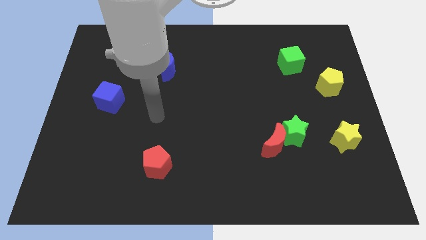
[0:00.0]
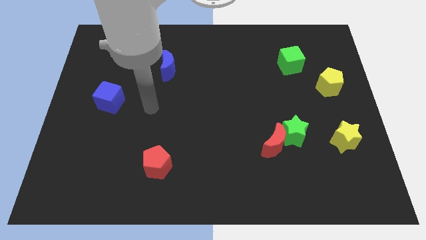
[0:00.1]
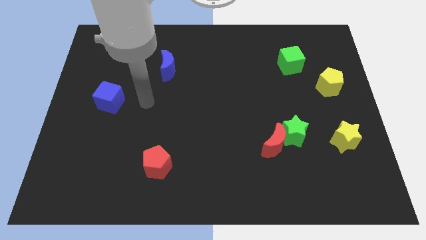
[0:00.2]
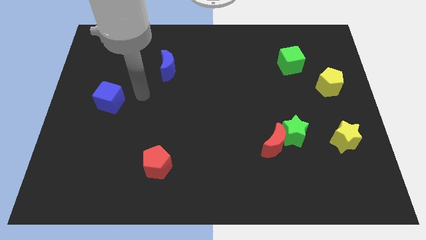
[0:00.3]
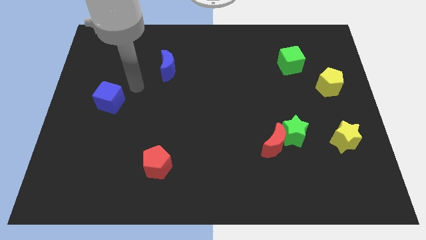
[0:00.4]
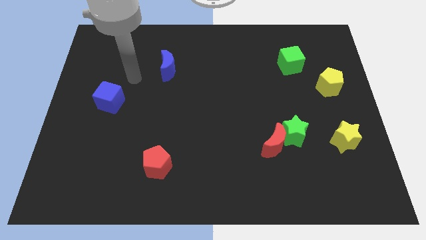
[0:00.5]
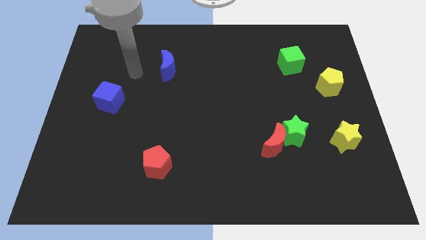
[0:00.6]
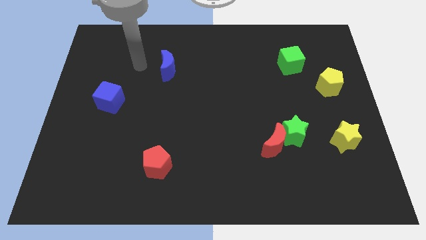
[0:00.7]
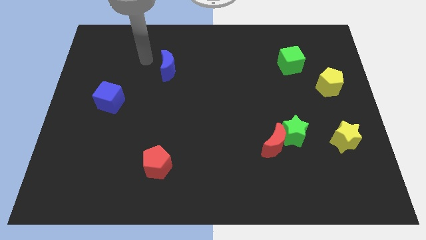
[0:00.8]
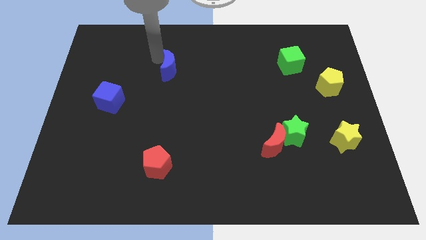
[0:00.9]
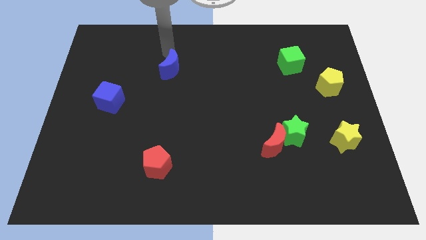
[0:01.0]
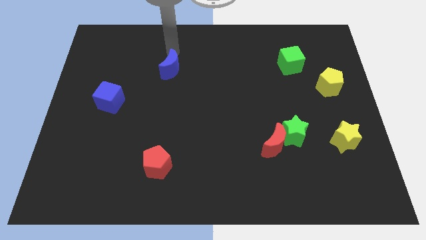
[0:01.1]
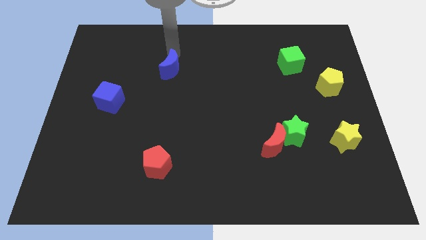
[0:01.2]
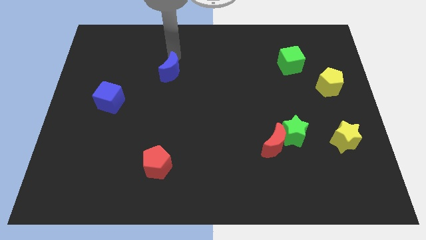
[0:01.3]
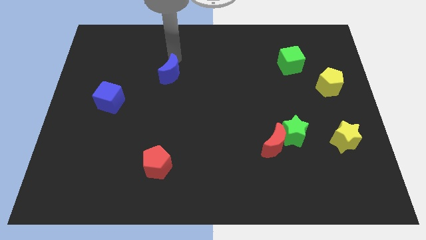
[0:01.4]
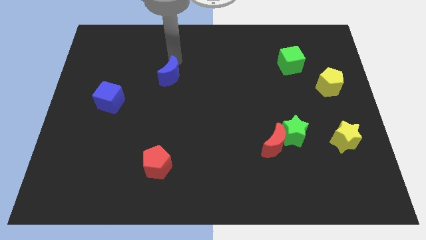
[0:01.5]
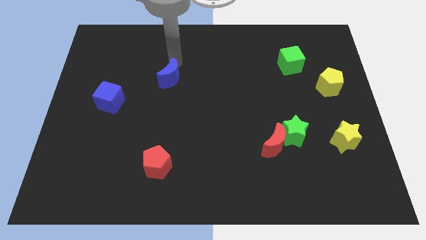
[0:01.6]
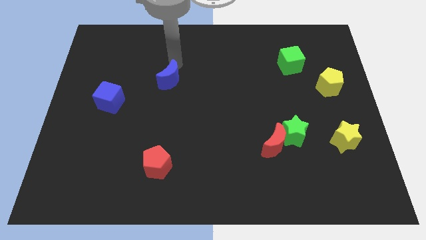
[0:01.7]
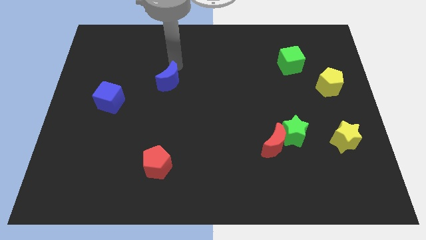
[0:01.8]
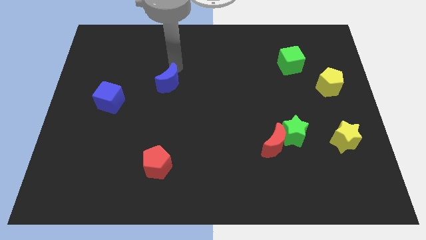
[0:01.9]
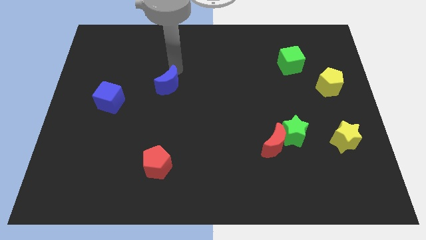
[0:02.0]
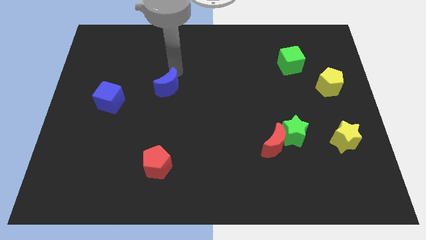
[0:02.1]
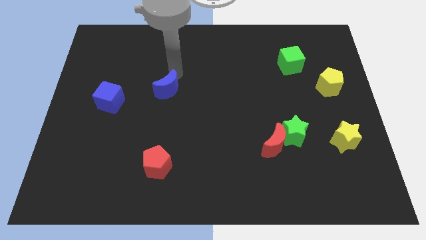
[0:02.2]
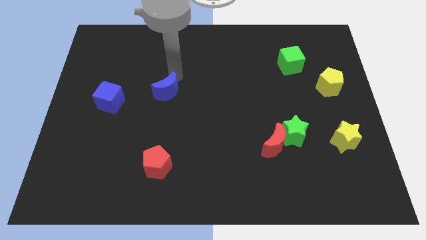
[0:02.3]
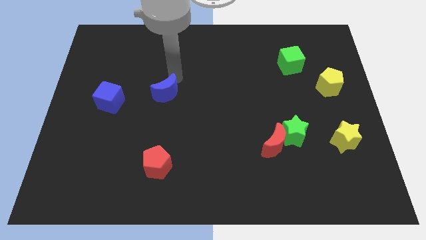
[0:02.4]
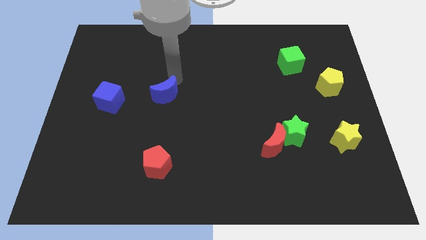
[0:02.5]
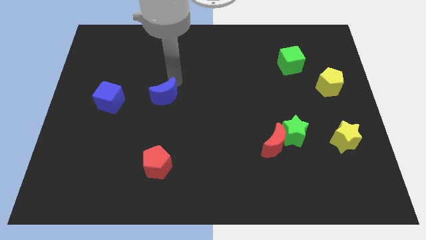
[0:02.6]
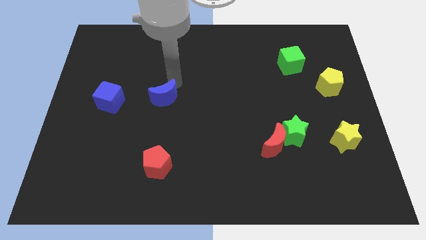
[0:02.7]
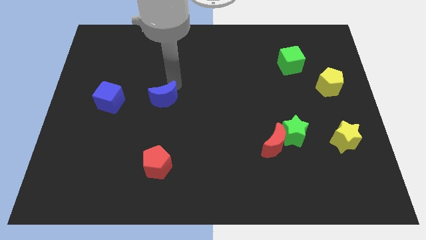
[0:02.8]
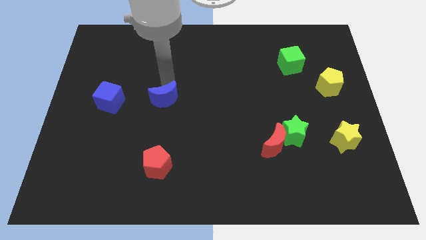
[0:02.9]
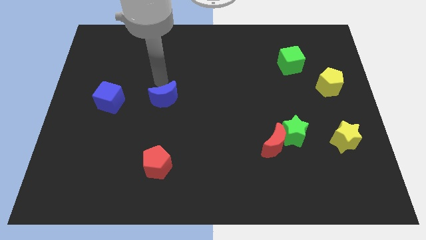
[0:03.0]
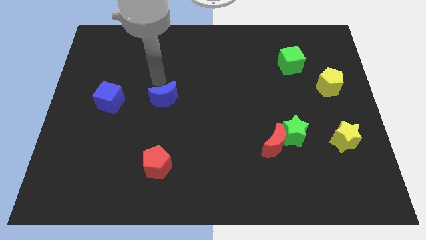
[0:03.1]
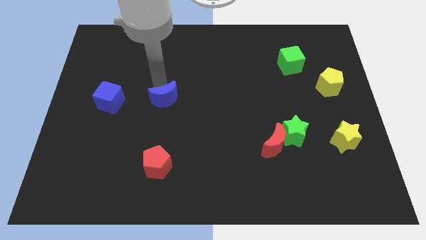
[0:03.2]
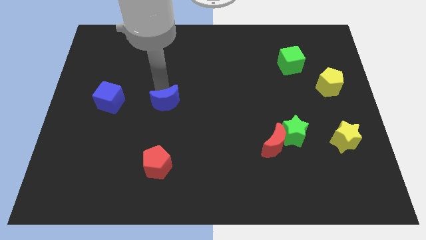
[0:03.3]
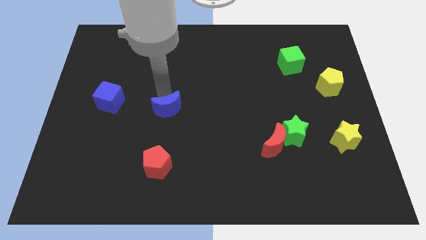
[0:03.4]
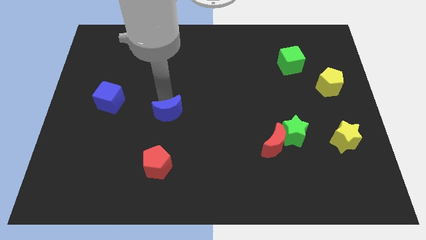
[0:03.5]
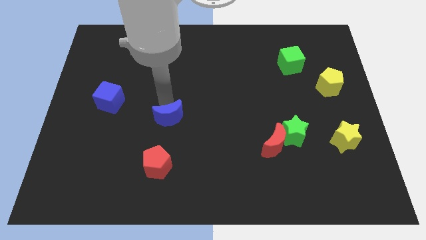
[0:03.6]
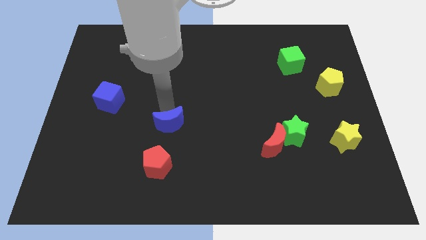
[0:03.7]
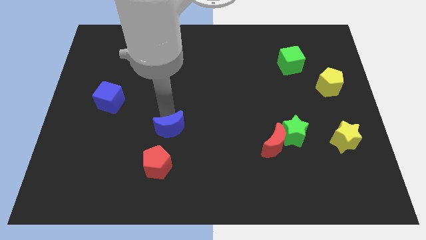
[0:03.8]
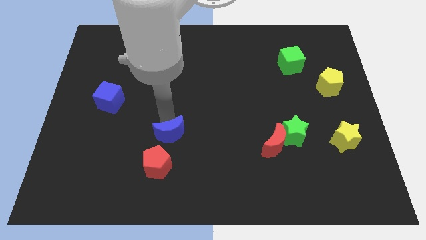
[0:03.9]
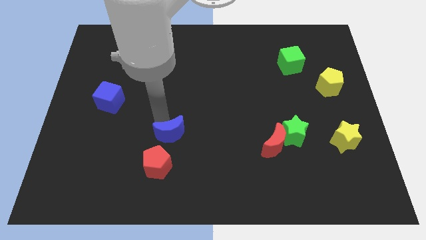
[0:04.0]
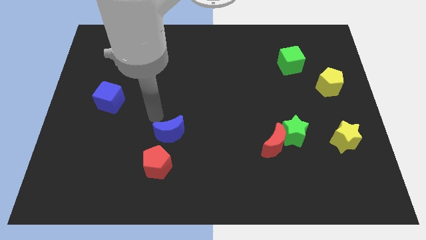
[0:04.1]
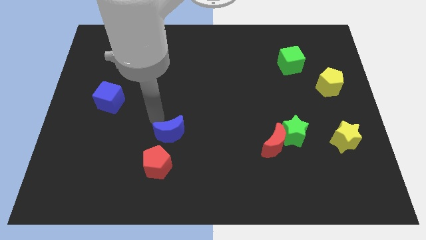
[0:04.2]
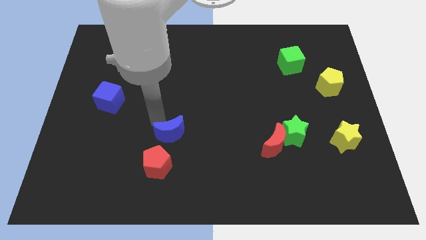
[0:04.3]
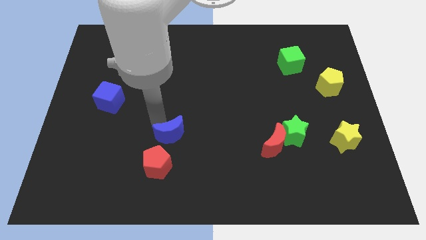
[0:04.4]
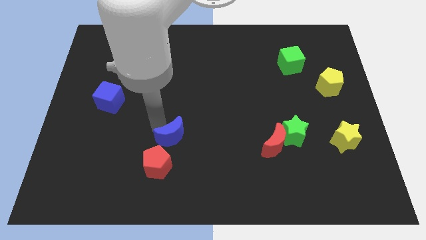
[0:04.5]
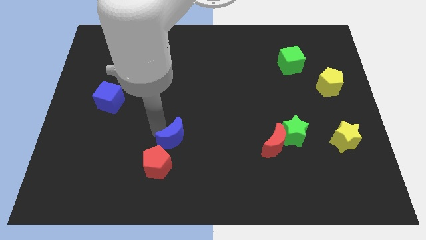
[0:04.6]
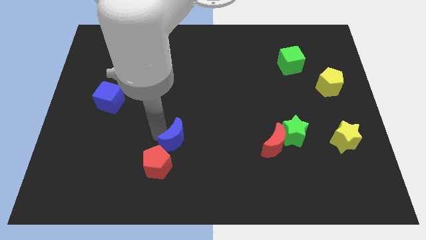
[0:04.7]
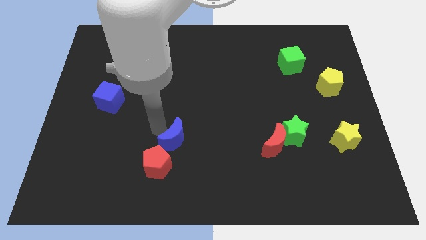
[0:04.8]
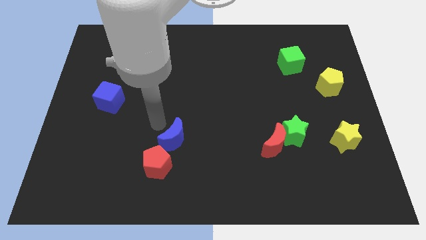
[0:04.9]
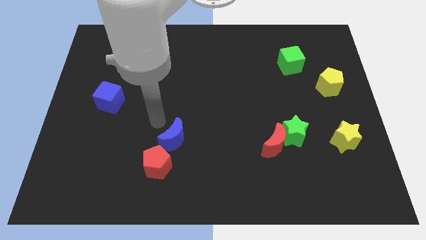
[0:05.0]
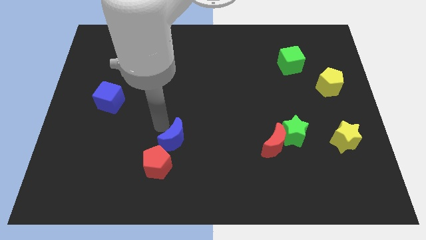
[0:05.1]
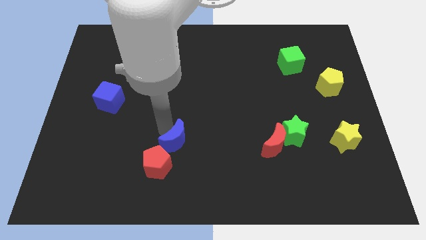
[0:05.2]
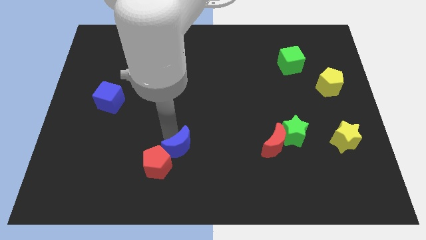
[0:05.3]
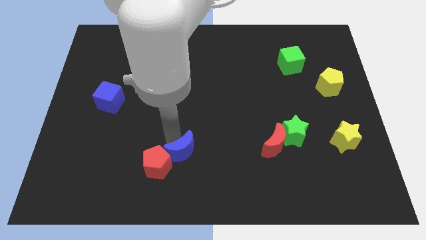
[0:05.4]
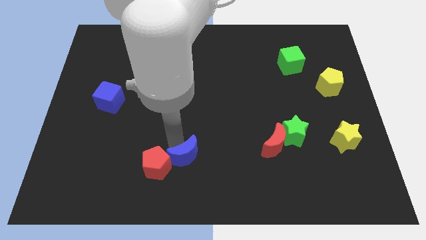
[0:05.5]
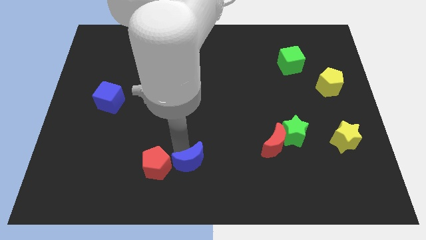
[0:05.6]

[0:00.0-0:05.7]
slide the blue moon to the bottom

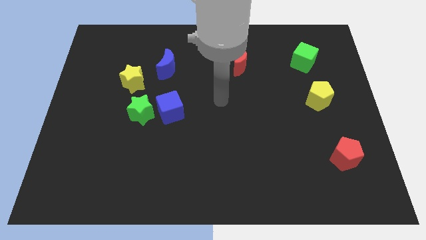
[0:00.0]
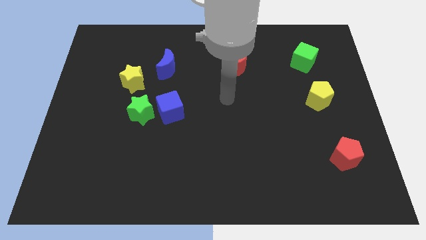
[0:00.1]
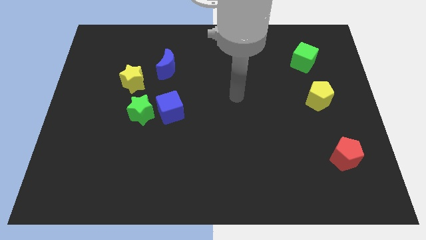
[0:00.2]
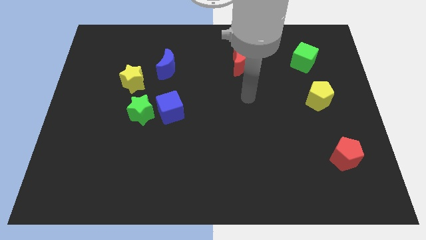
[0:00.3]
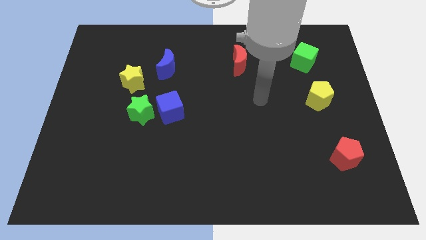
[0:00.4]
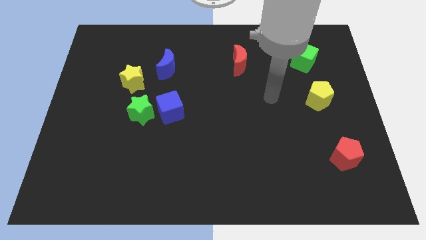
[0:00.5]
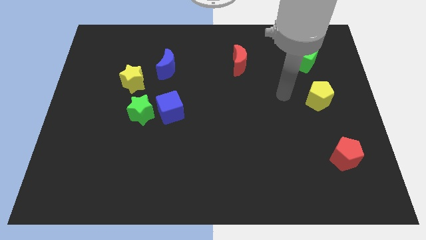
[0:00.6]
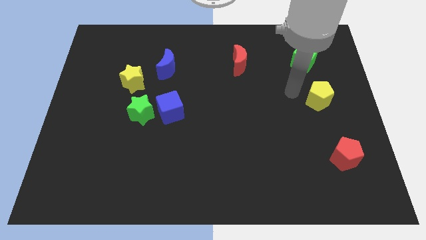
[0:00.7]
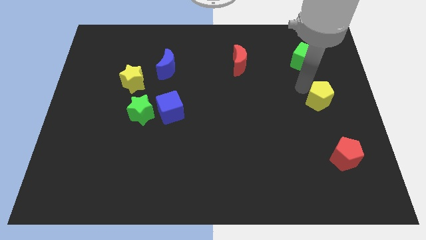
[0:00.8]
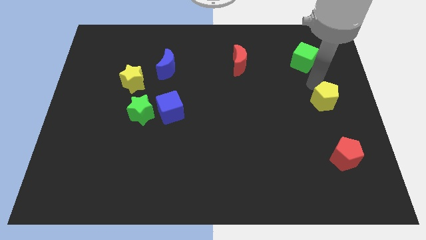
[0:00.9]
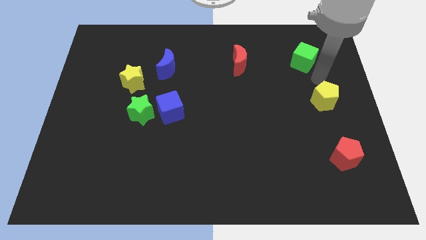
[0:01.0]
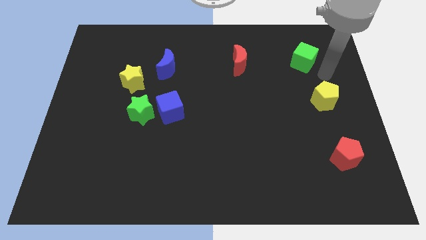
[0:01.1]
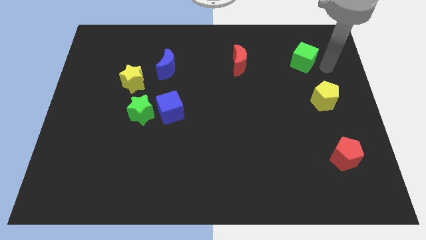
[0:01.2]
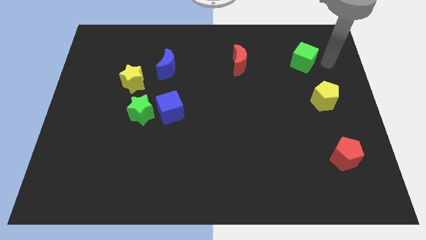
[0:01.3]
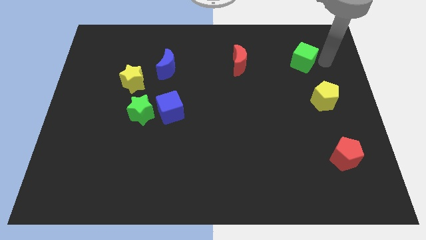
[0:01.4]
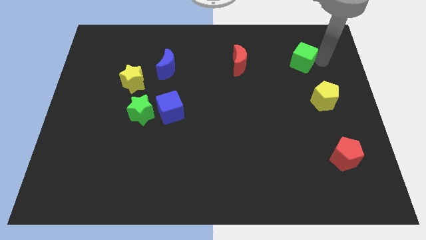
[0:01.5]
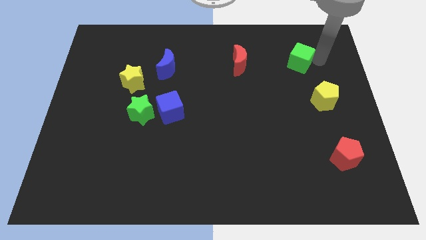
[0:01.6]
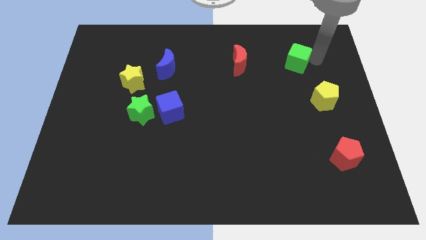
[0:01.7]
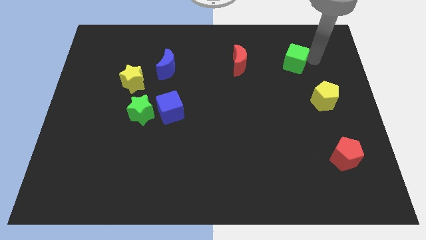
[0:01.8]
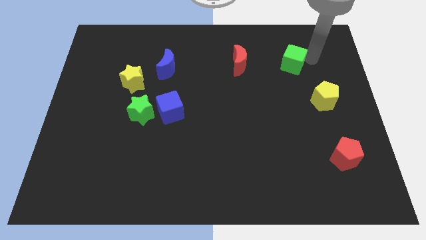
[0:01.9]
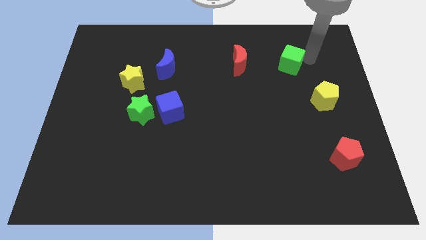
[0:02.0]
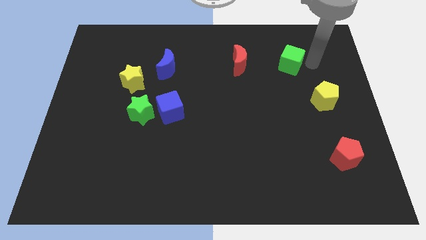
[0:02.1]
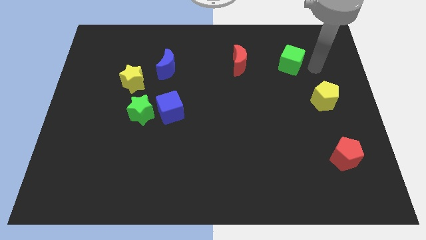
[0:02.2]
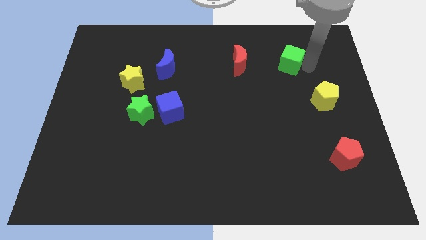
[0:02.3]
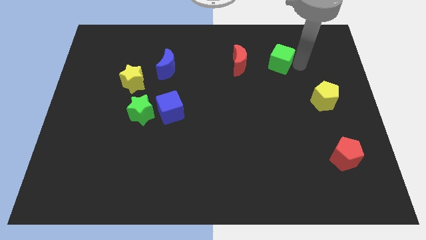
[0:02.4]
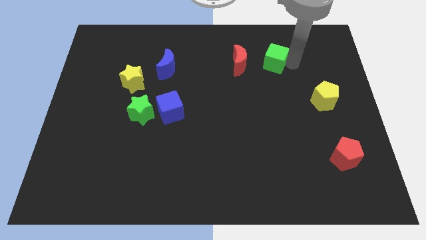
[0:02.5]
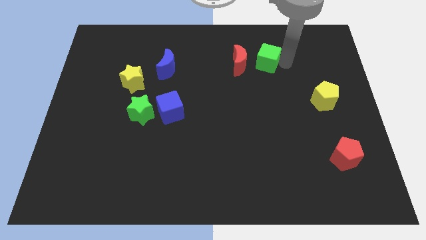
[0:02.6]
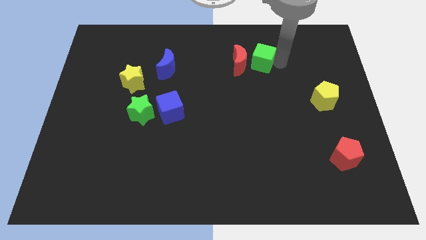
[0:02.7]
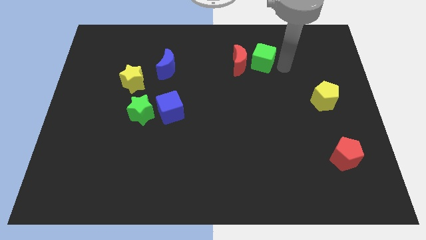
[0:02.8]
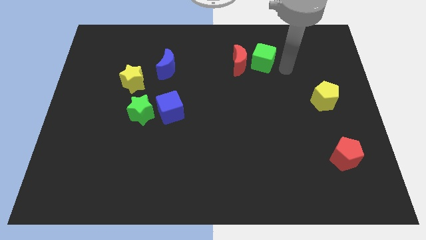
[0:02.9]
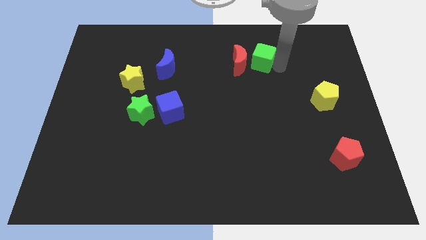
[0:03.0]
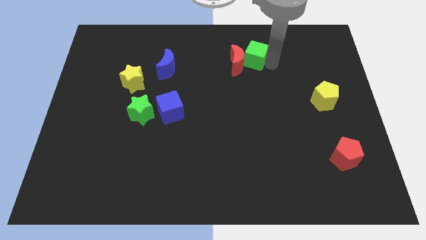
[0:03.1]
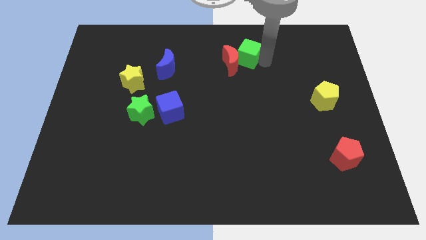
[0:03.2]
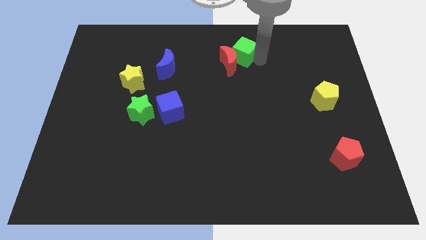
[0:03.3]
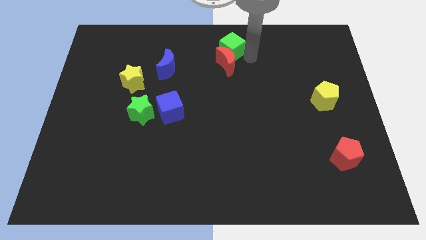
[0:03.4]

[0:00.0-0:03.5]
push the green cube to the top side
